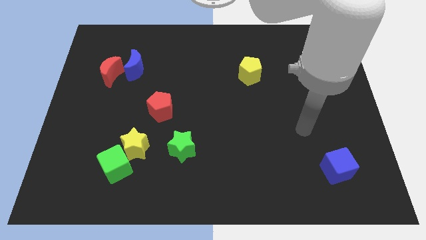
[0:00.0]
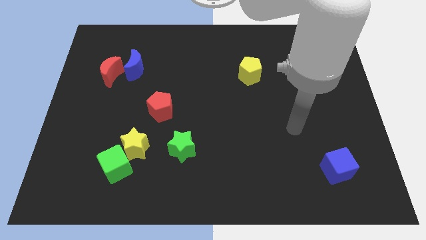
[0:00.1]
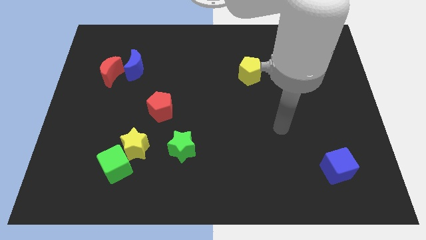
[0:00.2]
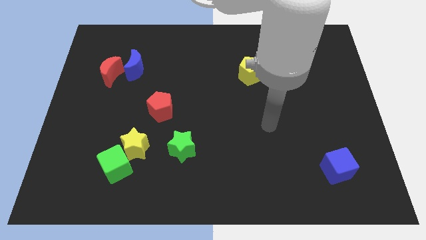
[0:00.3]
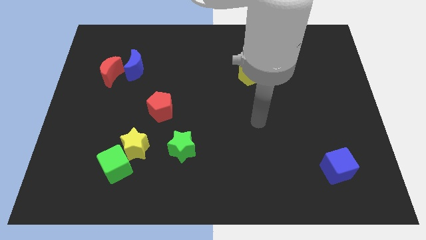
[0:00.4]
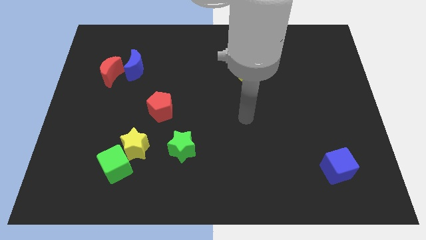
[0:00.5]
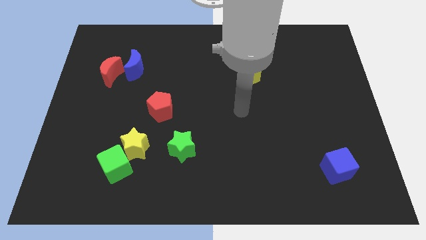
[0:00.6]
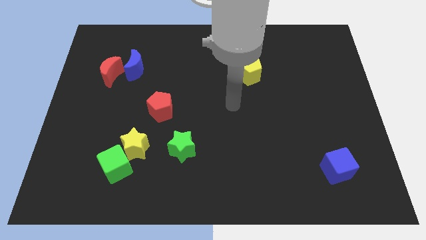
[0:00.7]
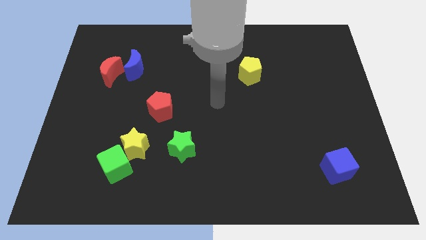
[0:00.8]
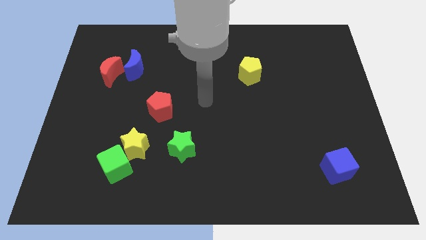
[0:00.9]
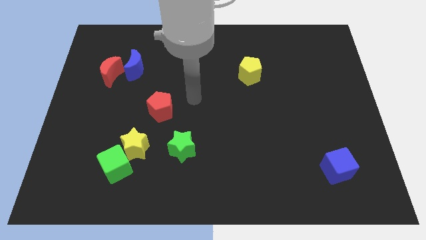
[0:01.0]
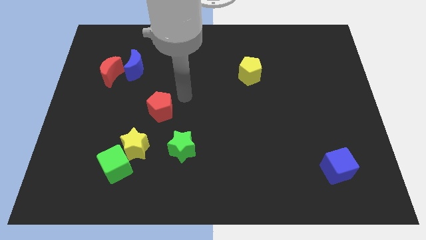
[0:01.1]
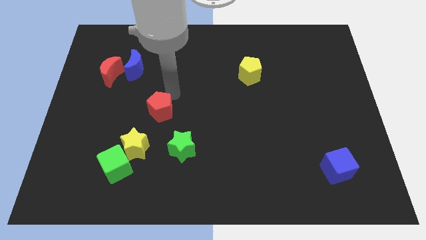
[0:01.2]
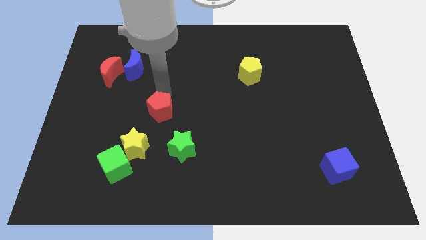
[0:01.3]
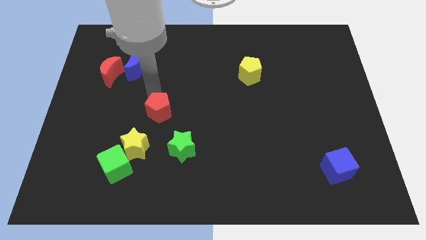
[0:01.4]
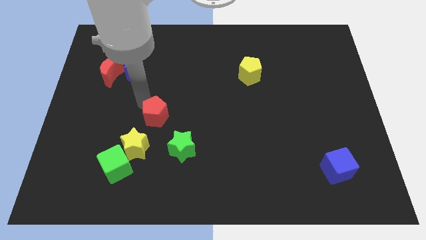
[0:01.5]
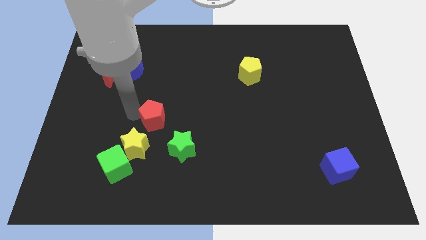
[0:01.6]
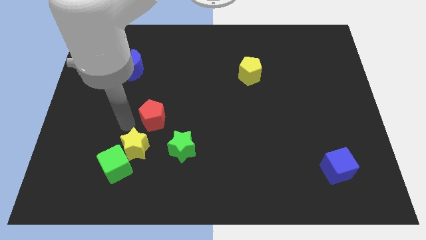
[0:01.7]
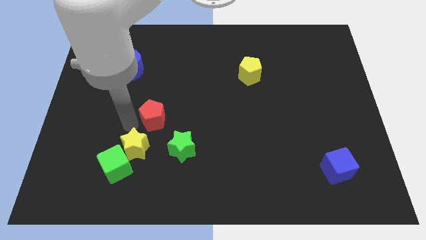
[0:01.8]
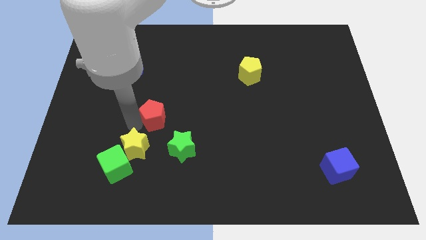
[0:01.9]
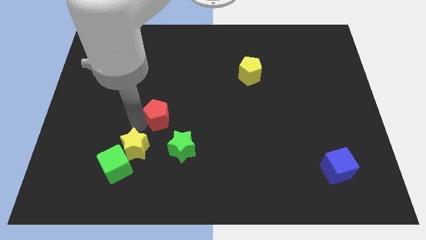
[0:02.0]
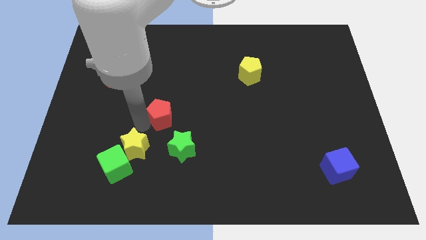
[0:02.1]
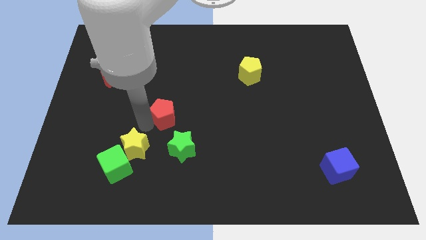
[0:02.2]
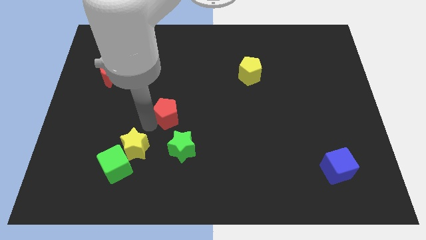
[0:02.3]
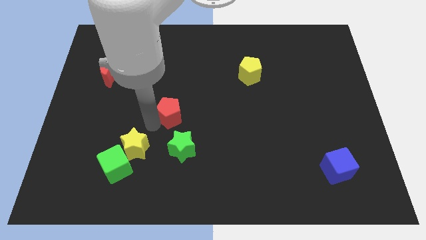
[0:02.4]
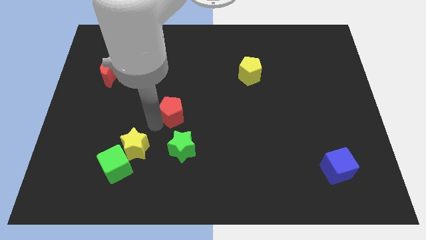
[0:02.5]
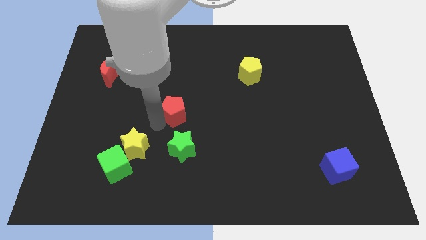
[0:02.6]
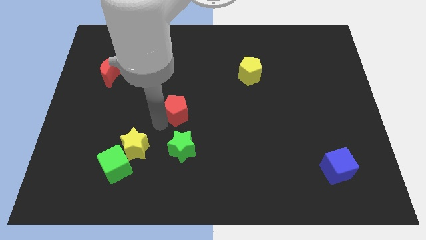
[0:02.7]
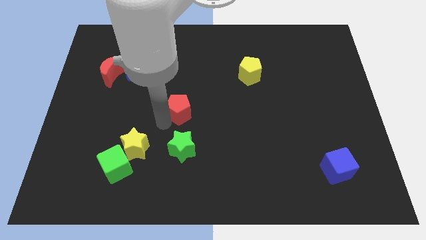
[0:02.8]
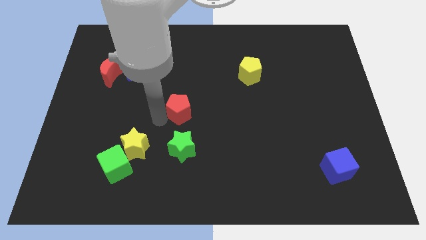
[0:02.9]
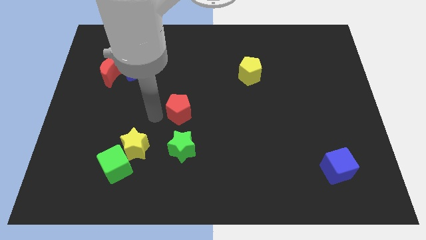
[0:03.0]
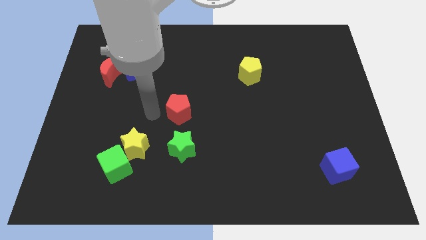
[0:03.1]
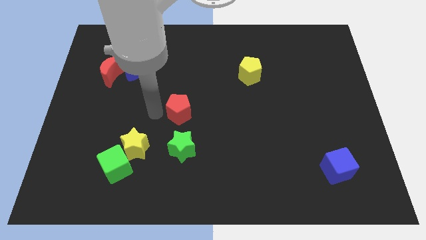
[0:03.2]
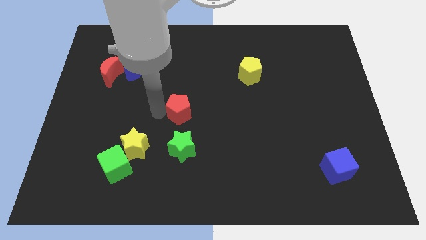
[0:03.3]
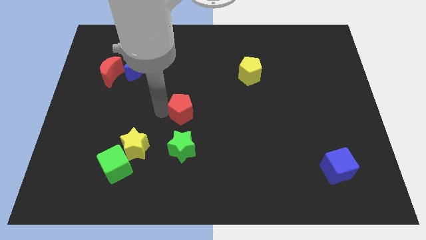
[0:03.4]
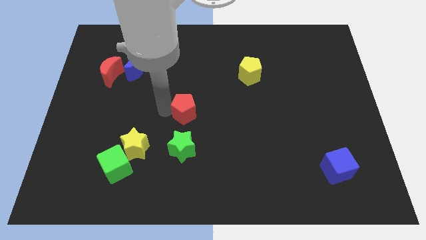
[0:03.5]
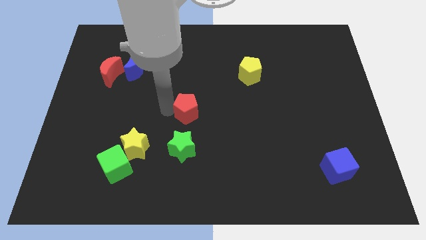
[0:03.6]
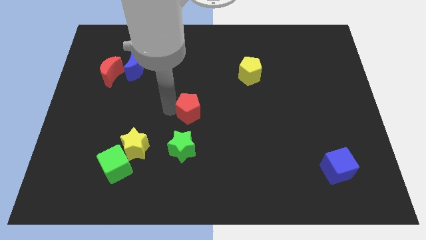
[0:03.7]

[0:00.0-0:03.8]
slide the red pentagon a little to the right

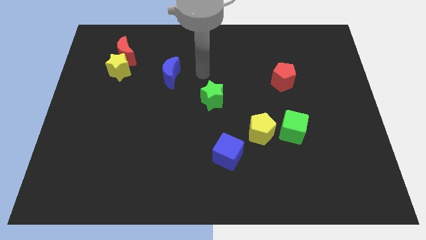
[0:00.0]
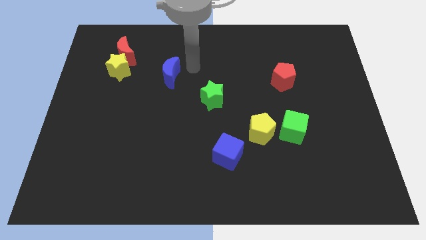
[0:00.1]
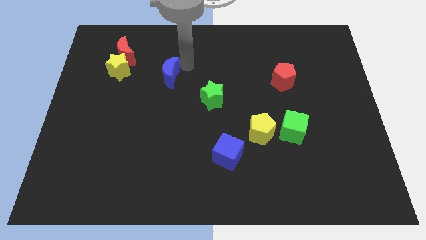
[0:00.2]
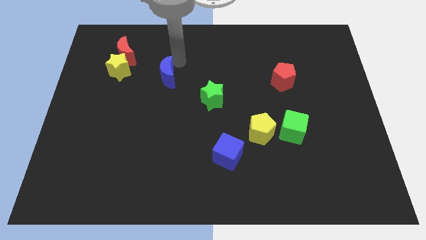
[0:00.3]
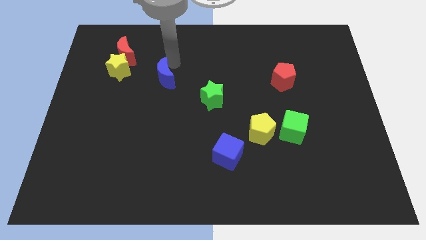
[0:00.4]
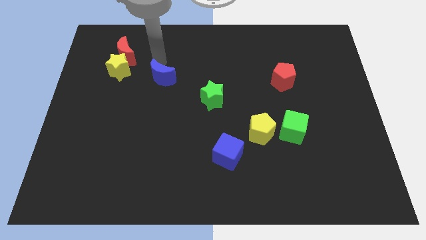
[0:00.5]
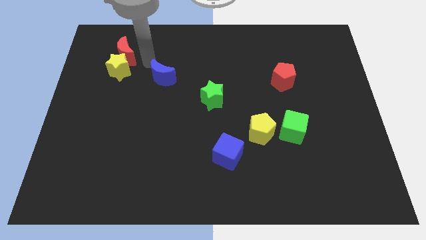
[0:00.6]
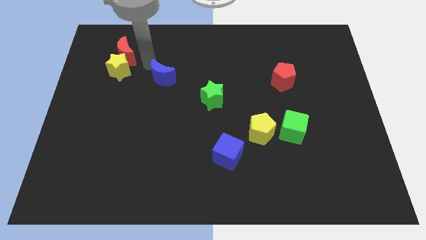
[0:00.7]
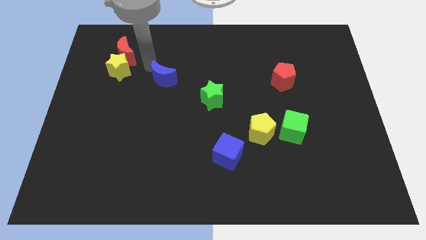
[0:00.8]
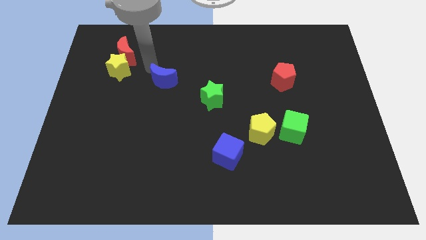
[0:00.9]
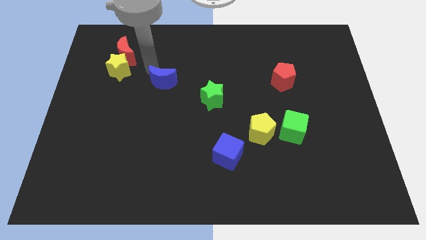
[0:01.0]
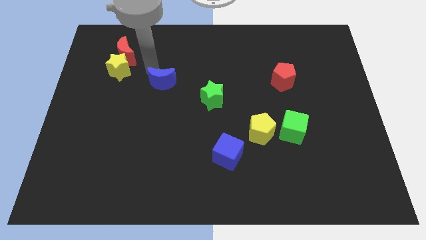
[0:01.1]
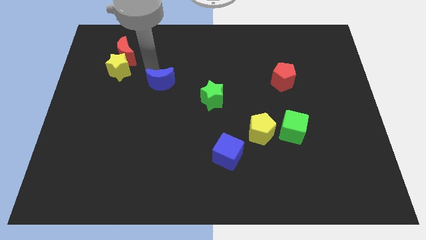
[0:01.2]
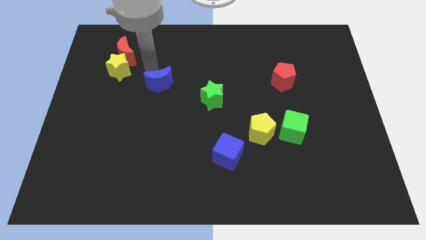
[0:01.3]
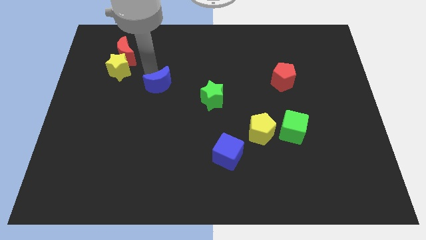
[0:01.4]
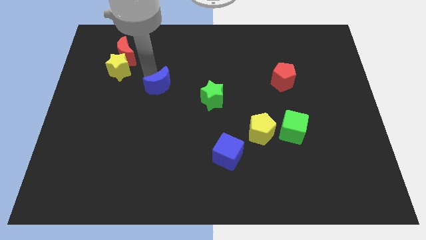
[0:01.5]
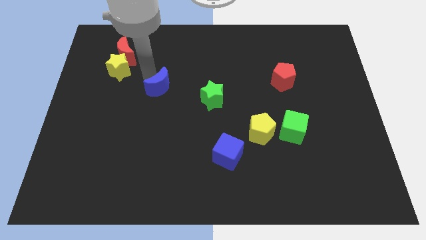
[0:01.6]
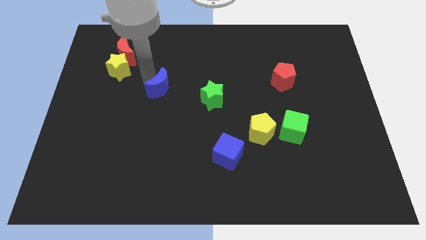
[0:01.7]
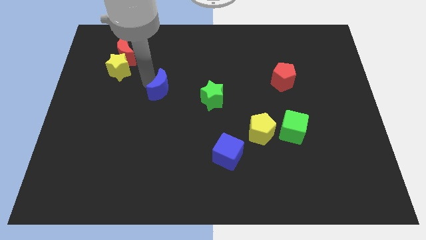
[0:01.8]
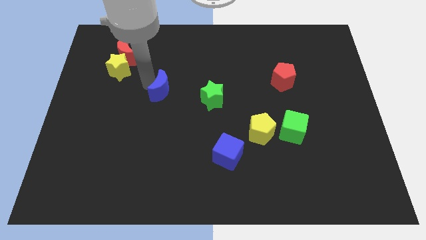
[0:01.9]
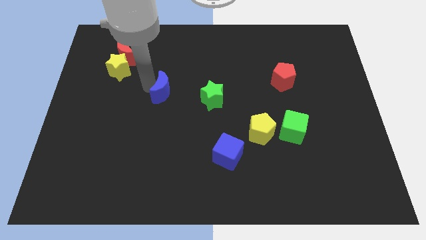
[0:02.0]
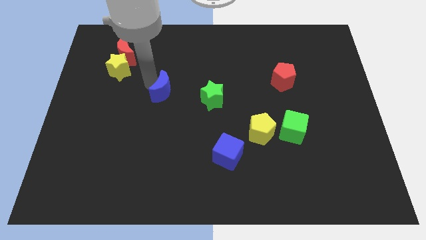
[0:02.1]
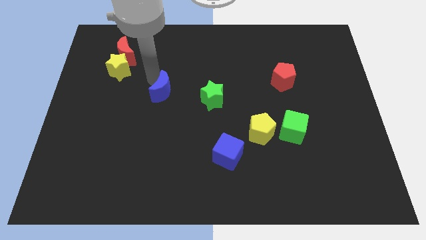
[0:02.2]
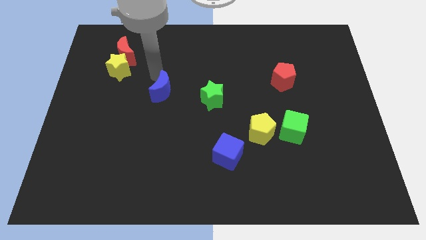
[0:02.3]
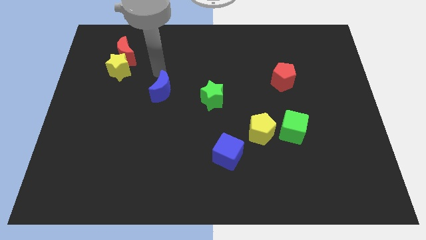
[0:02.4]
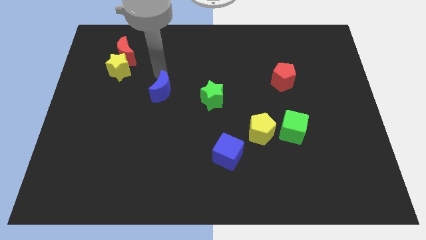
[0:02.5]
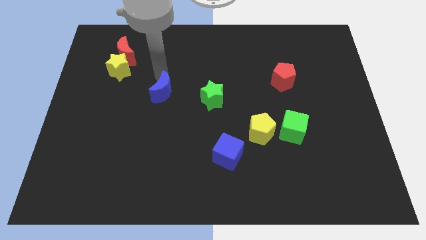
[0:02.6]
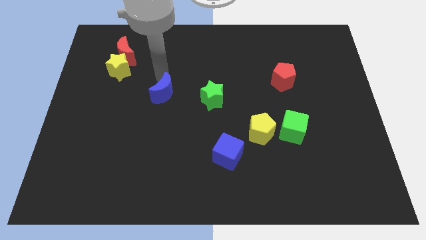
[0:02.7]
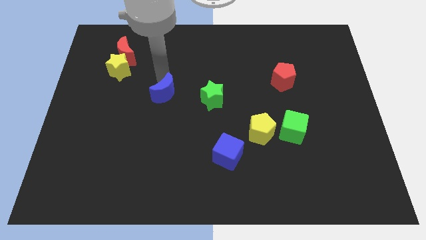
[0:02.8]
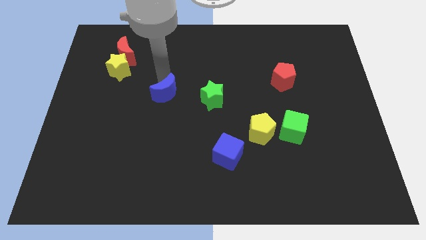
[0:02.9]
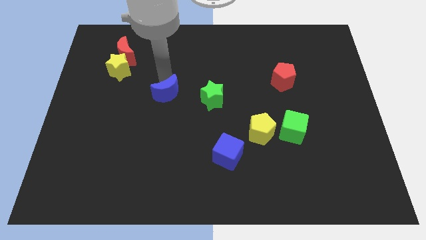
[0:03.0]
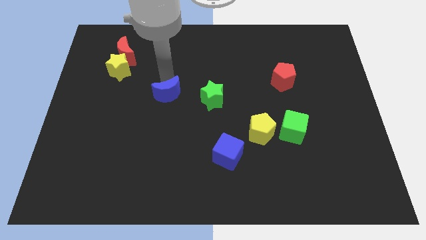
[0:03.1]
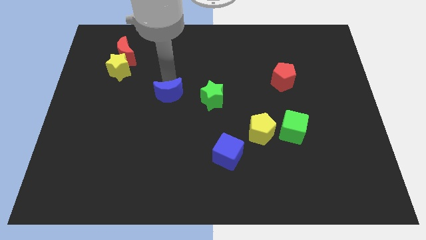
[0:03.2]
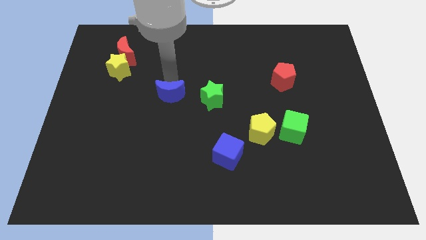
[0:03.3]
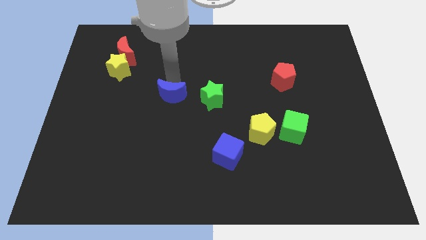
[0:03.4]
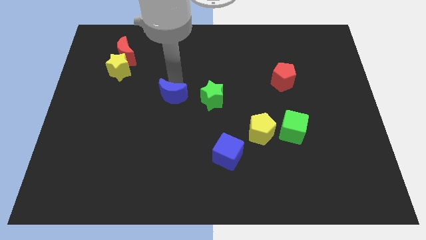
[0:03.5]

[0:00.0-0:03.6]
push the blue moon a bit downwards

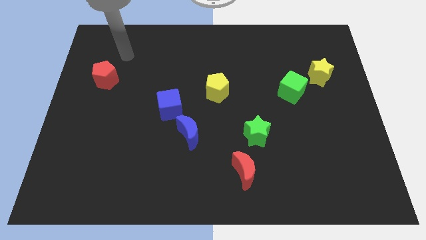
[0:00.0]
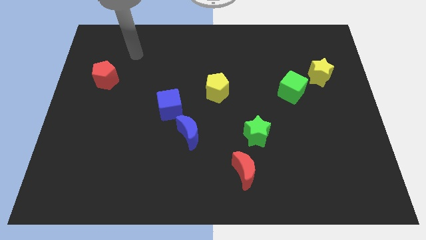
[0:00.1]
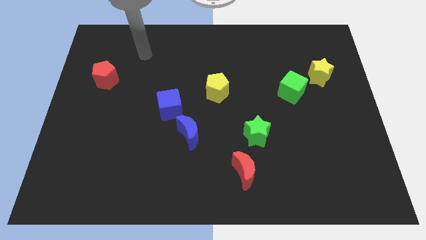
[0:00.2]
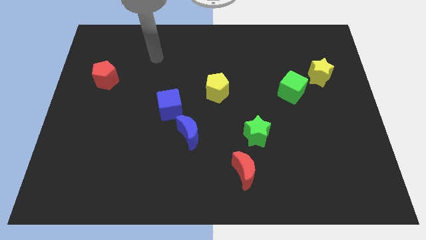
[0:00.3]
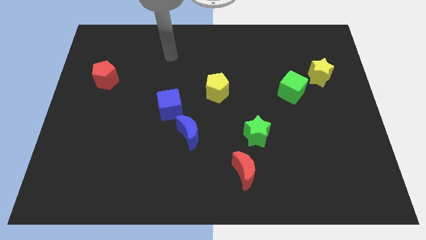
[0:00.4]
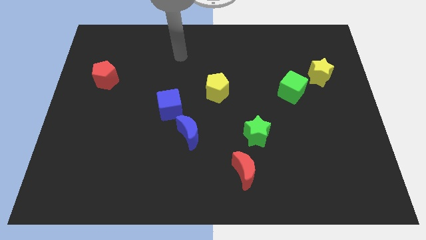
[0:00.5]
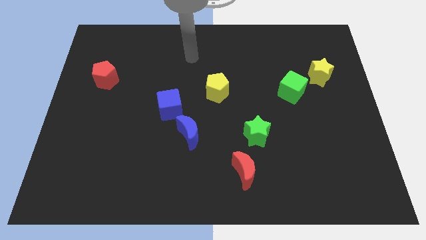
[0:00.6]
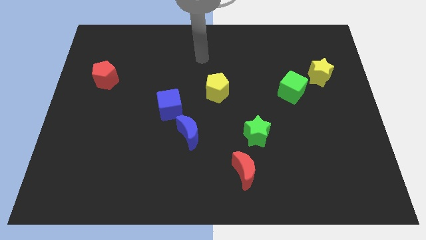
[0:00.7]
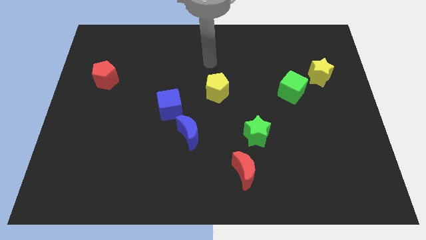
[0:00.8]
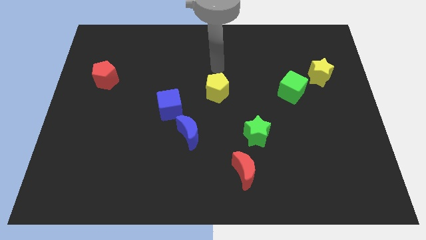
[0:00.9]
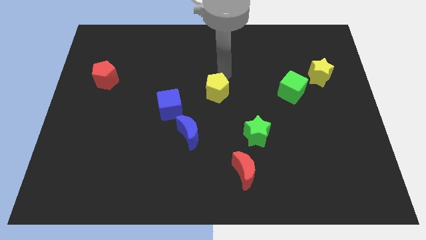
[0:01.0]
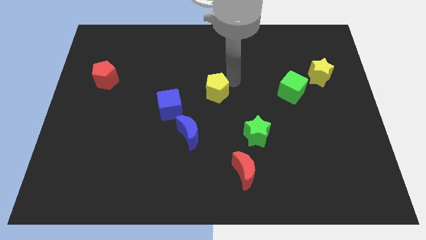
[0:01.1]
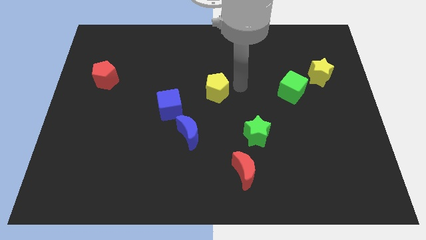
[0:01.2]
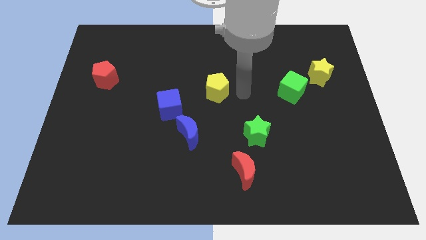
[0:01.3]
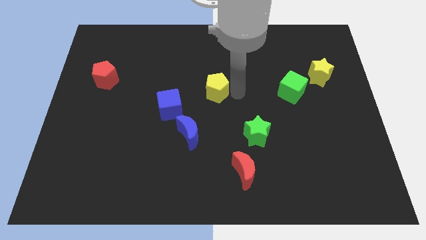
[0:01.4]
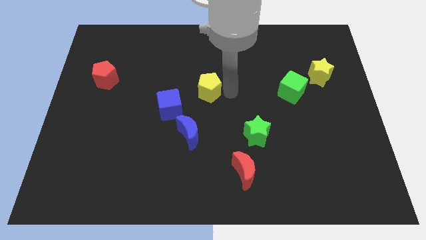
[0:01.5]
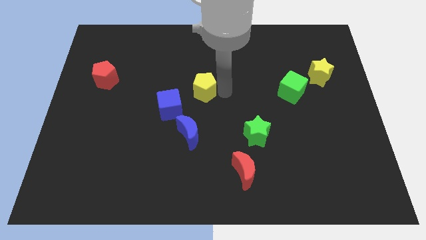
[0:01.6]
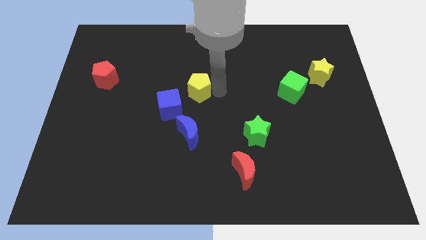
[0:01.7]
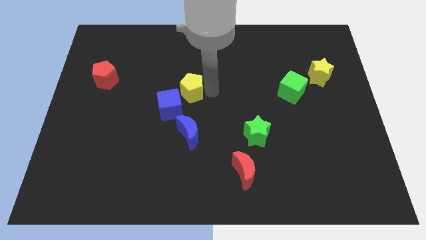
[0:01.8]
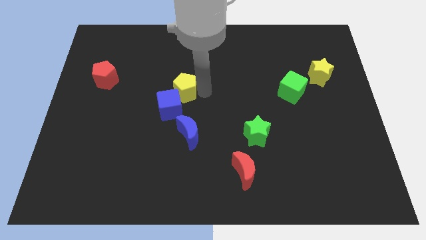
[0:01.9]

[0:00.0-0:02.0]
push the yellow pentagon left a bit
